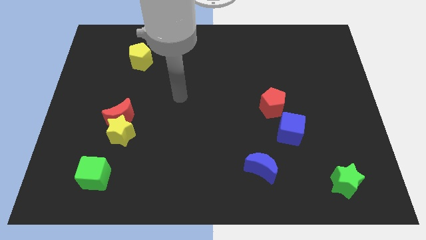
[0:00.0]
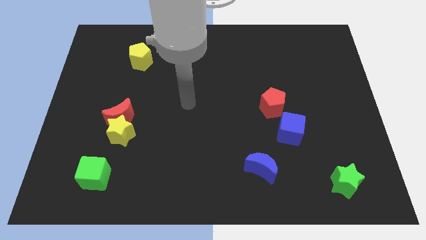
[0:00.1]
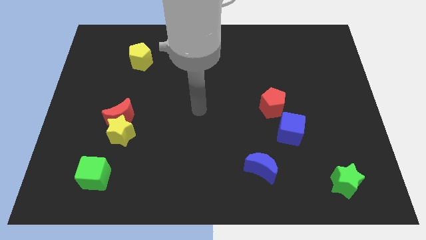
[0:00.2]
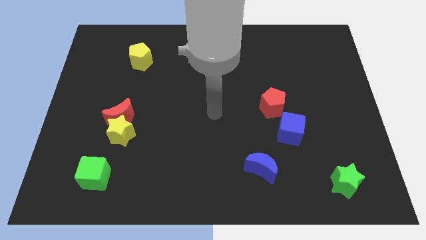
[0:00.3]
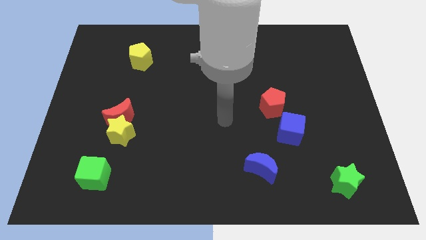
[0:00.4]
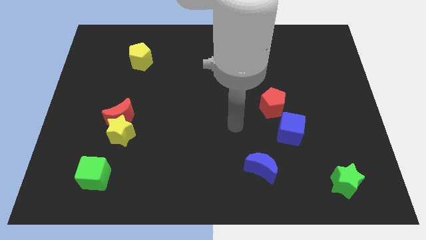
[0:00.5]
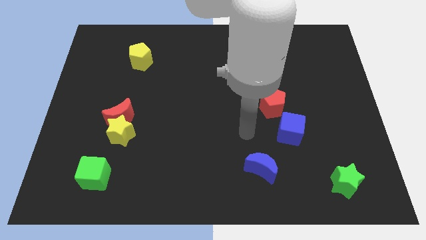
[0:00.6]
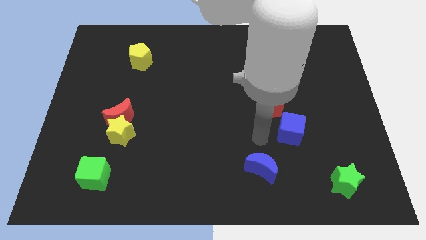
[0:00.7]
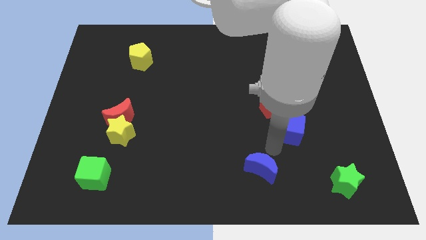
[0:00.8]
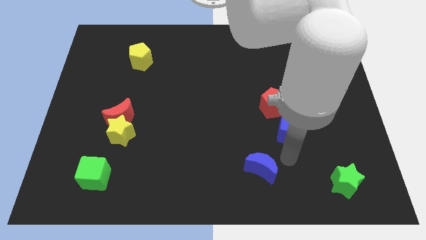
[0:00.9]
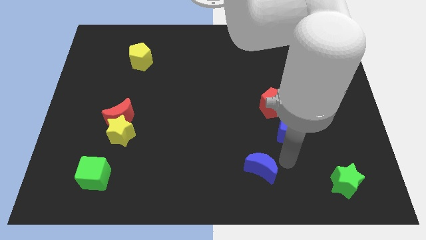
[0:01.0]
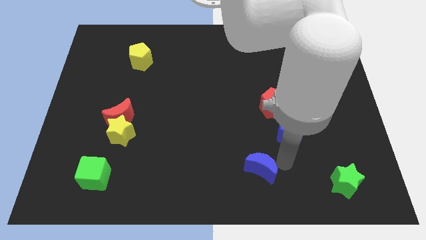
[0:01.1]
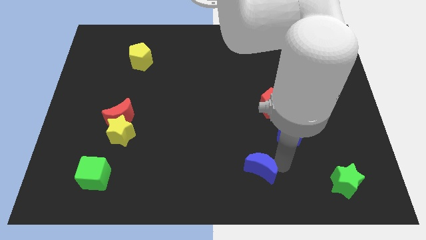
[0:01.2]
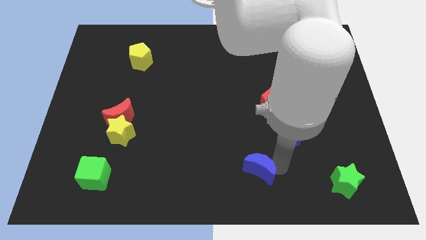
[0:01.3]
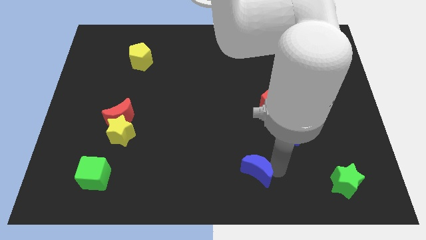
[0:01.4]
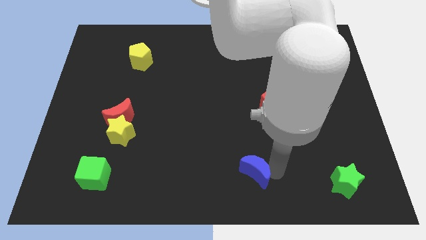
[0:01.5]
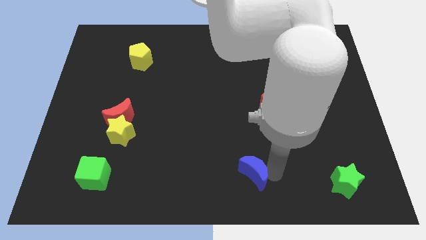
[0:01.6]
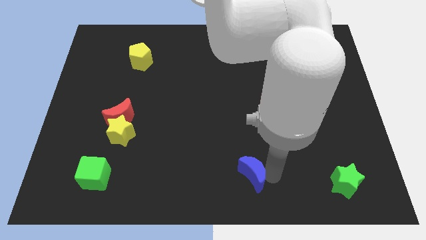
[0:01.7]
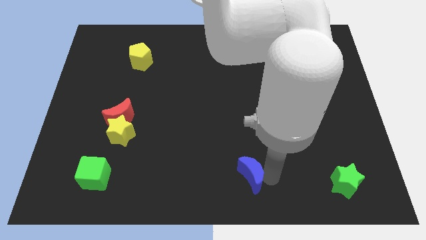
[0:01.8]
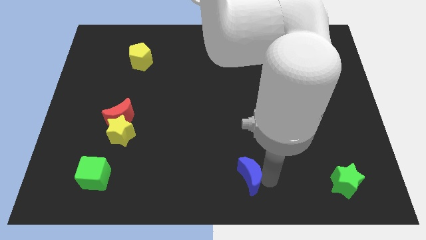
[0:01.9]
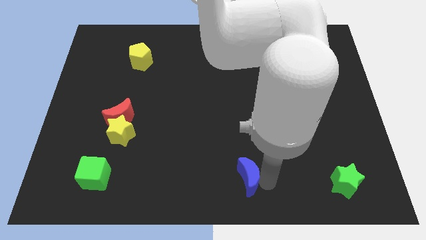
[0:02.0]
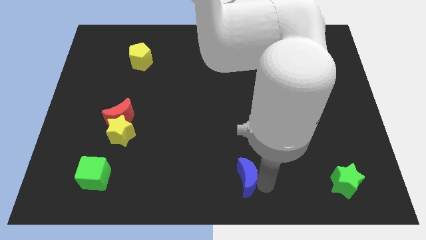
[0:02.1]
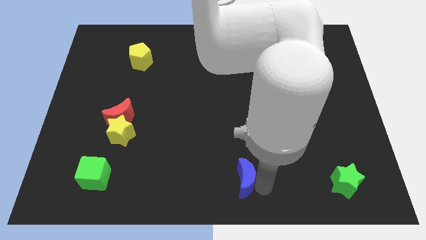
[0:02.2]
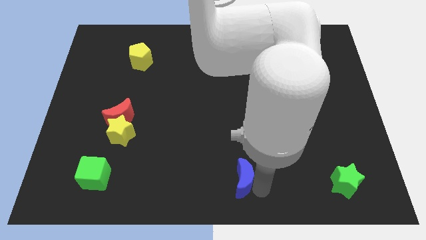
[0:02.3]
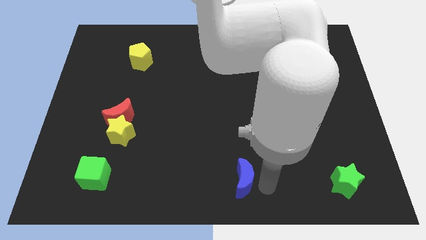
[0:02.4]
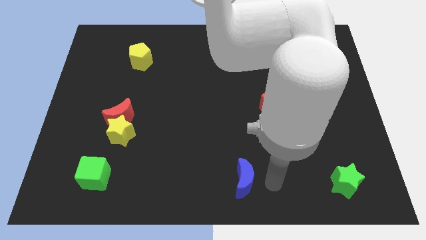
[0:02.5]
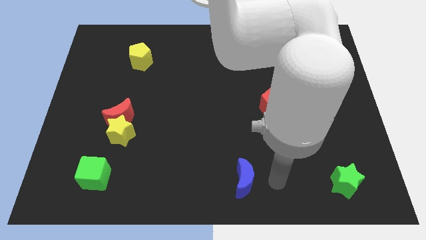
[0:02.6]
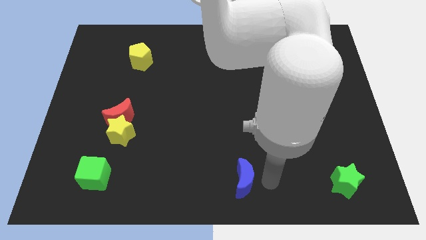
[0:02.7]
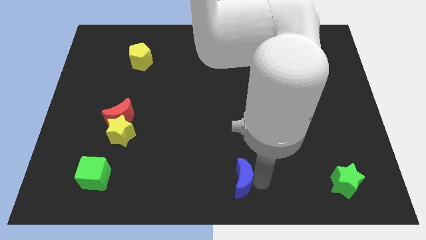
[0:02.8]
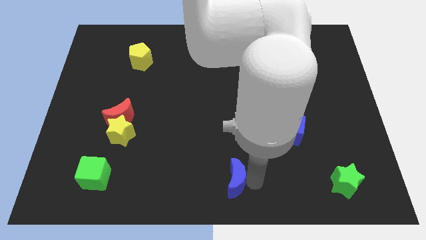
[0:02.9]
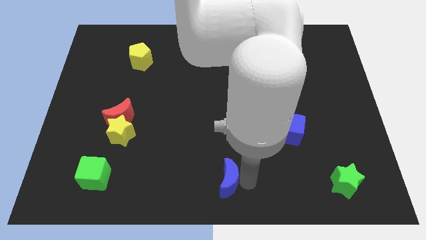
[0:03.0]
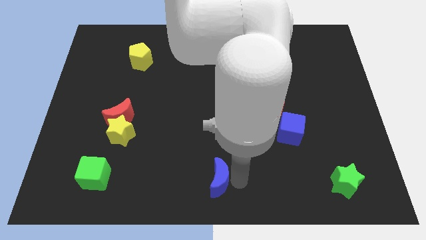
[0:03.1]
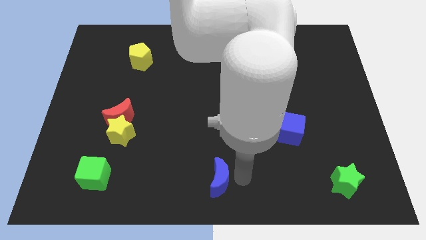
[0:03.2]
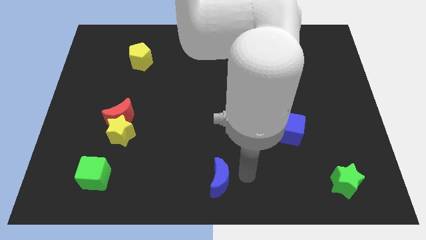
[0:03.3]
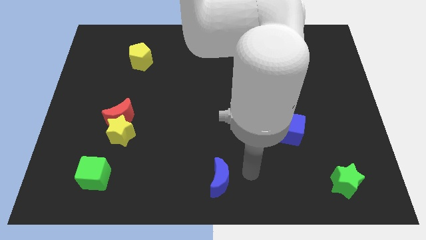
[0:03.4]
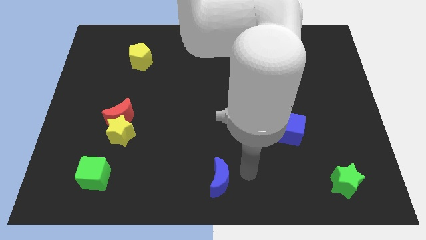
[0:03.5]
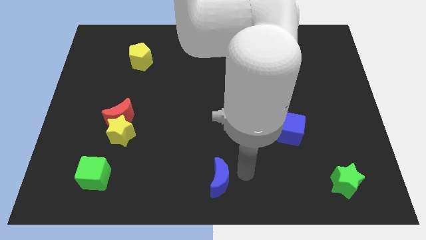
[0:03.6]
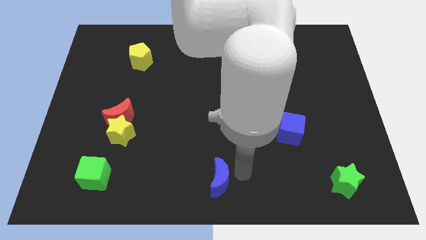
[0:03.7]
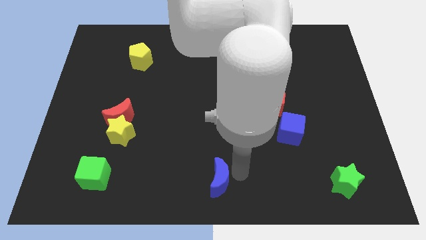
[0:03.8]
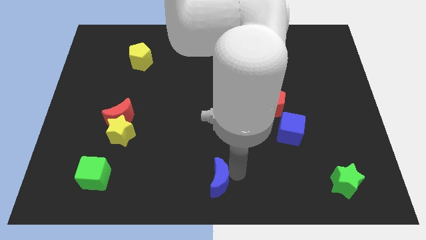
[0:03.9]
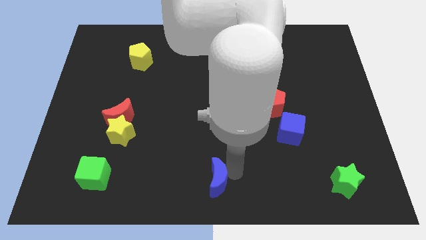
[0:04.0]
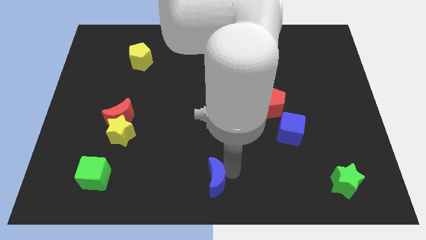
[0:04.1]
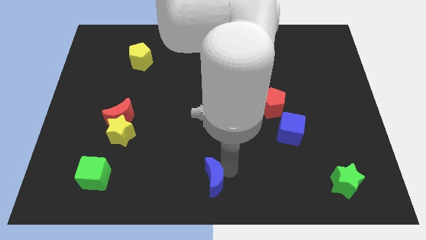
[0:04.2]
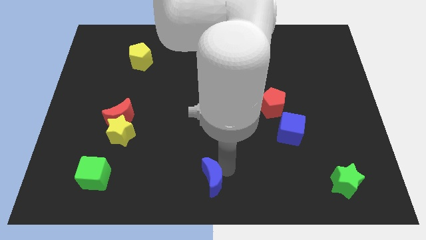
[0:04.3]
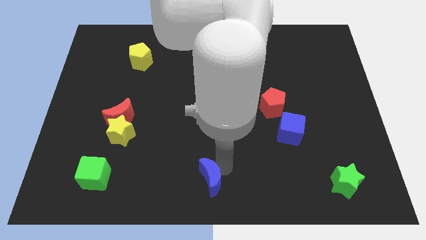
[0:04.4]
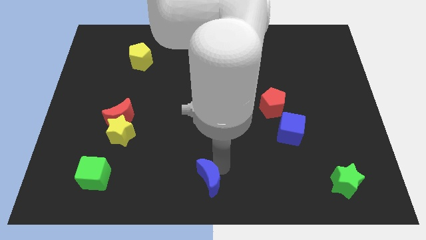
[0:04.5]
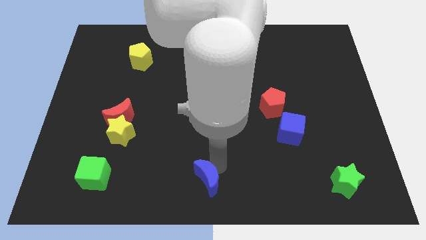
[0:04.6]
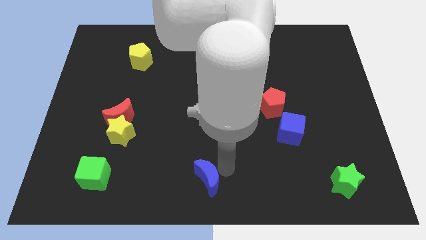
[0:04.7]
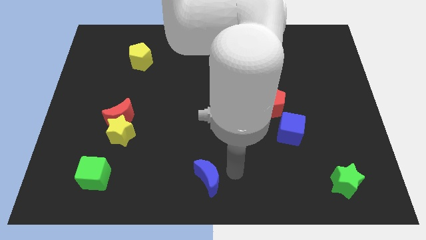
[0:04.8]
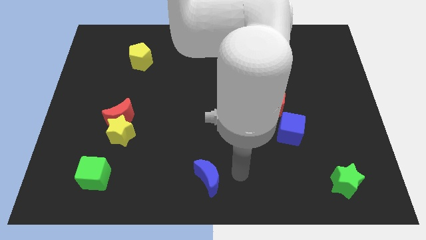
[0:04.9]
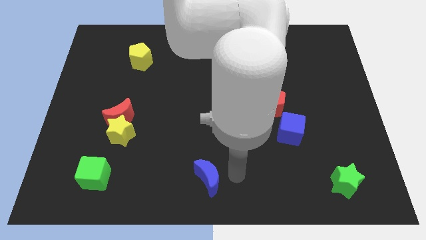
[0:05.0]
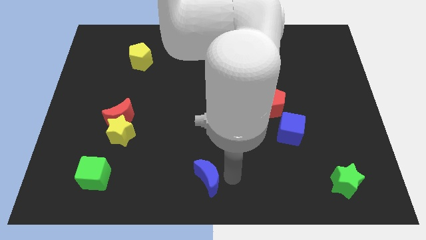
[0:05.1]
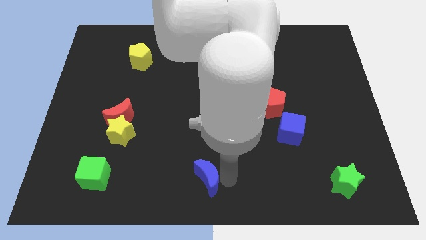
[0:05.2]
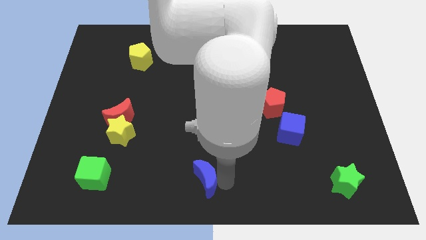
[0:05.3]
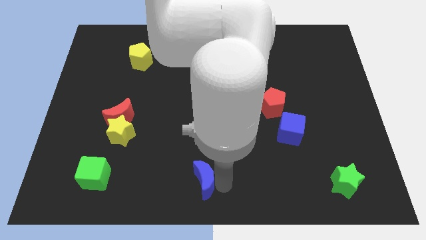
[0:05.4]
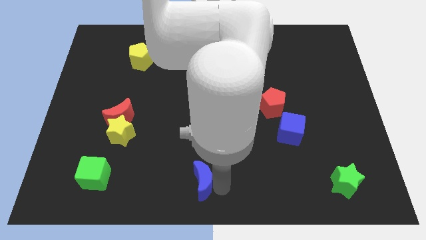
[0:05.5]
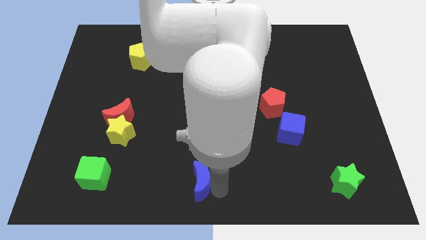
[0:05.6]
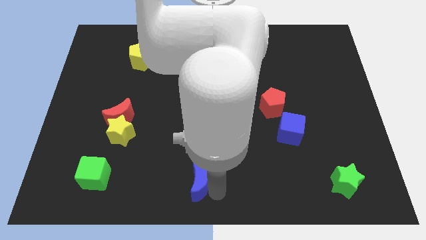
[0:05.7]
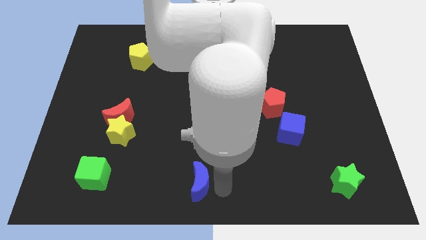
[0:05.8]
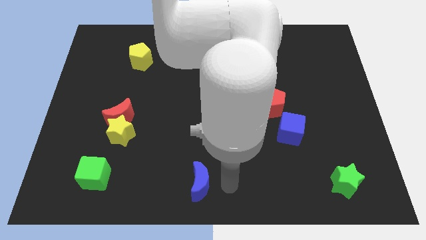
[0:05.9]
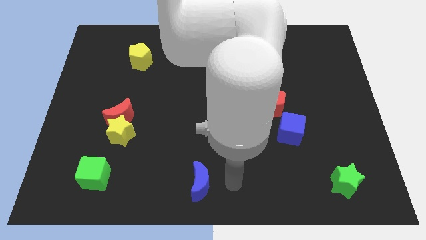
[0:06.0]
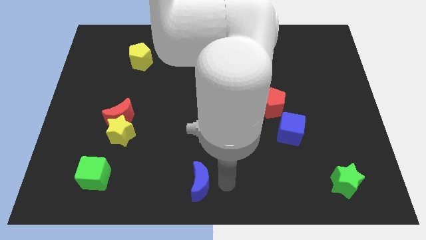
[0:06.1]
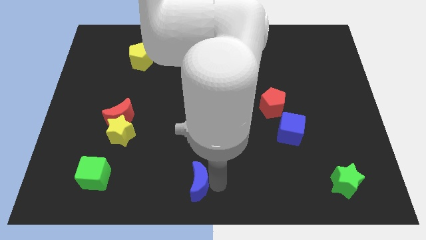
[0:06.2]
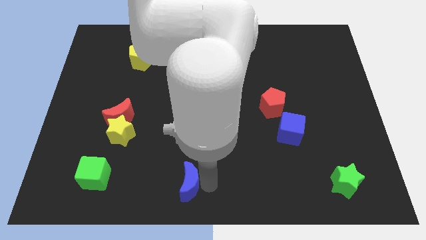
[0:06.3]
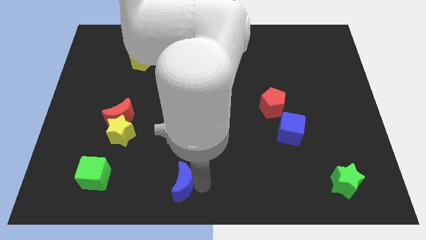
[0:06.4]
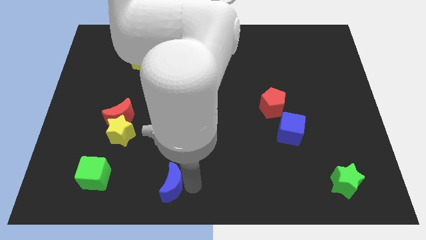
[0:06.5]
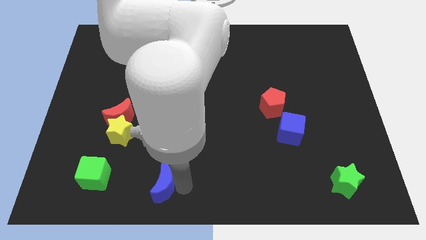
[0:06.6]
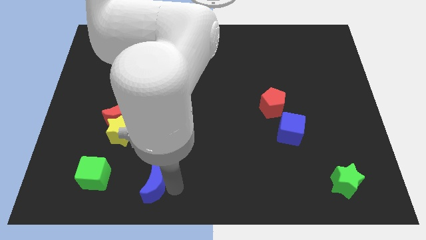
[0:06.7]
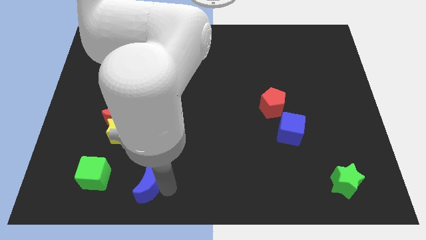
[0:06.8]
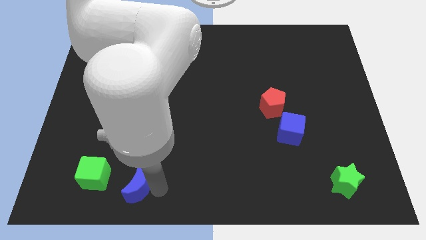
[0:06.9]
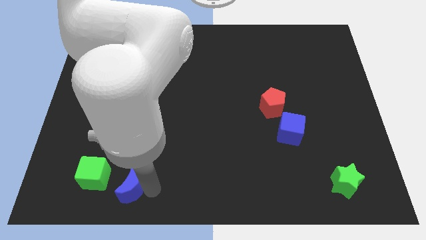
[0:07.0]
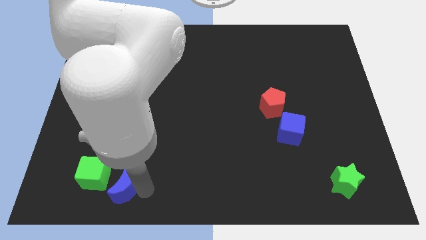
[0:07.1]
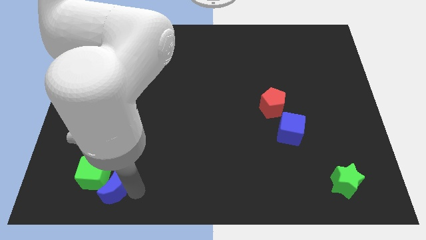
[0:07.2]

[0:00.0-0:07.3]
put the blue moon towards the green cube

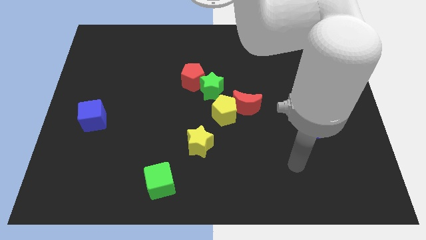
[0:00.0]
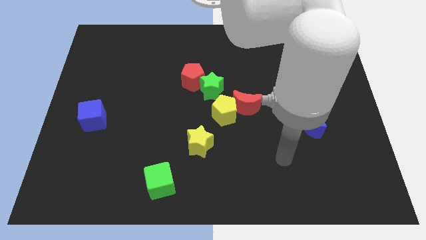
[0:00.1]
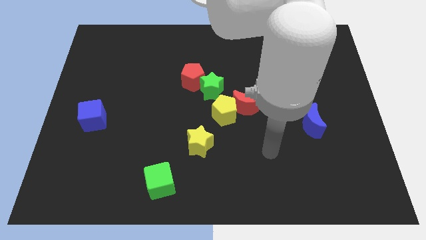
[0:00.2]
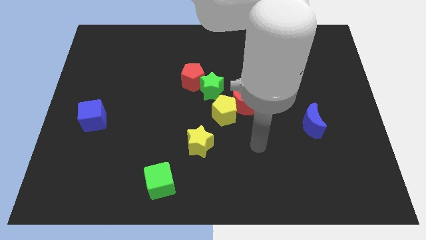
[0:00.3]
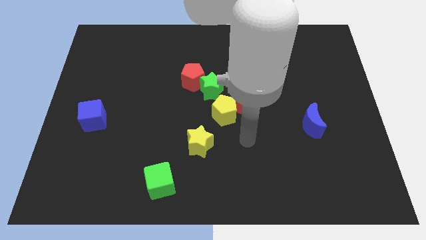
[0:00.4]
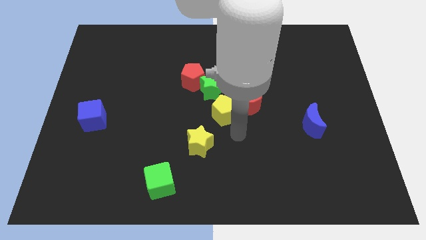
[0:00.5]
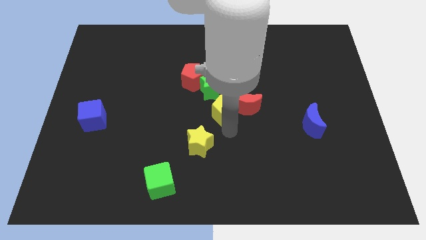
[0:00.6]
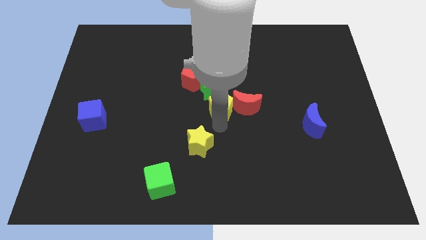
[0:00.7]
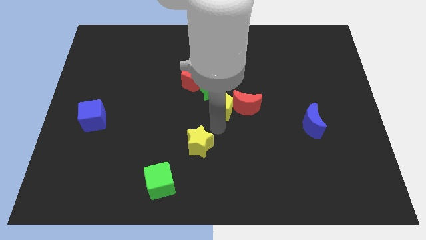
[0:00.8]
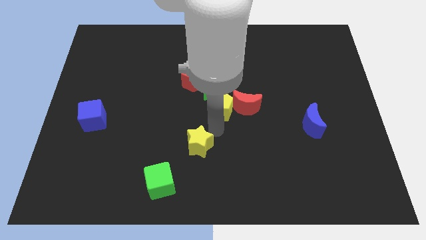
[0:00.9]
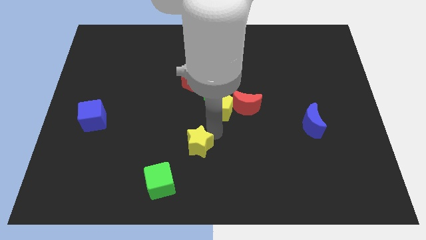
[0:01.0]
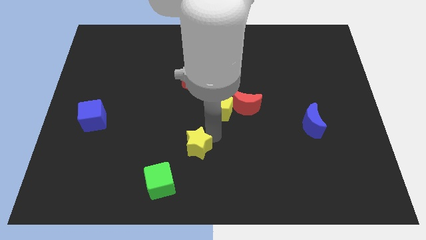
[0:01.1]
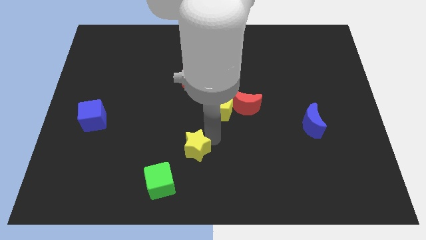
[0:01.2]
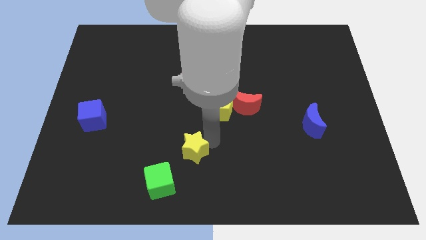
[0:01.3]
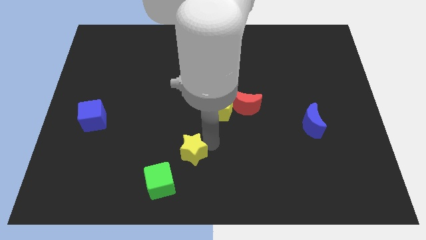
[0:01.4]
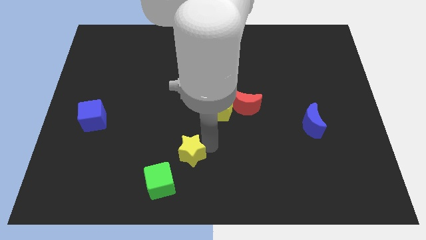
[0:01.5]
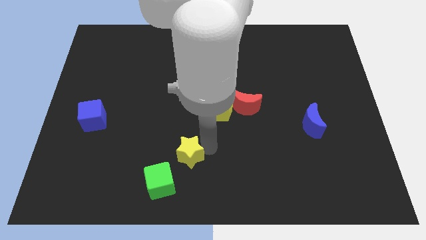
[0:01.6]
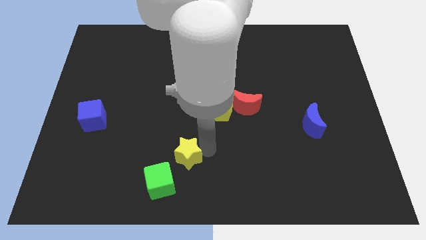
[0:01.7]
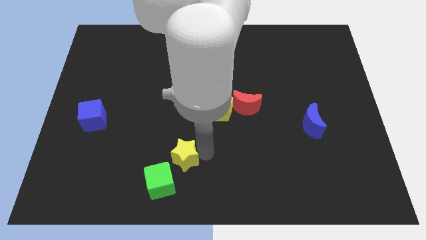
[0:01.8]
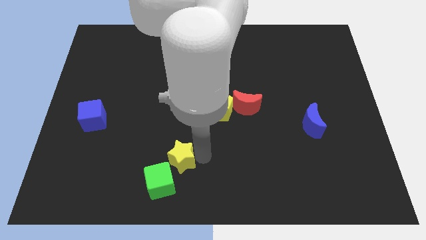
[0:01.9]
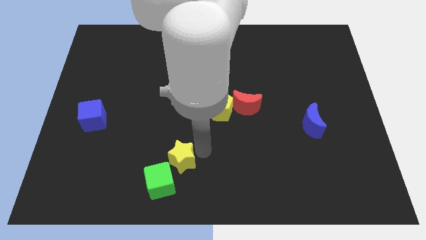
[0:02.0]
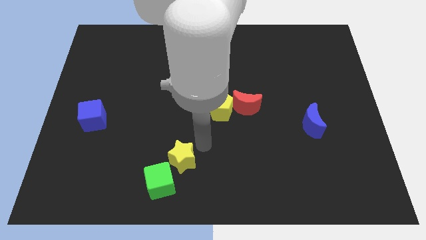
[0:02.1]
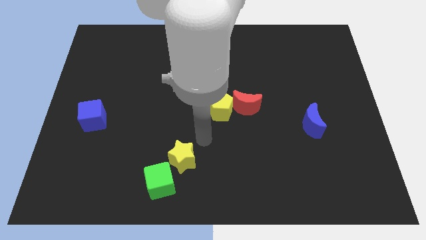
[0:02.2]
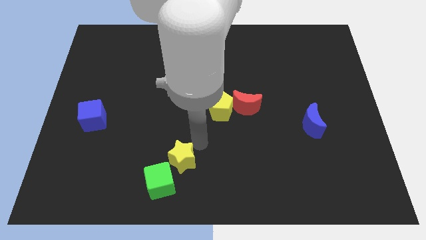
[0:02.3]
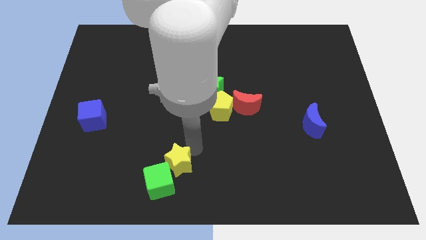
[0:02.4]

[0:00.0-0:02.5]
move the yellow star next to the green cube
